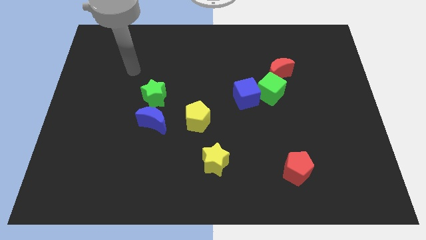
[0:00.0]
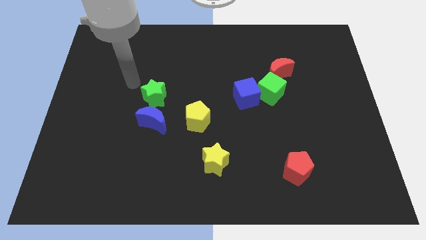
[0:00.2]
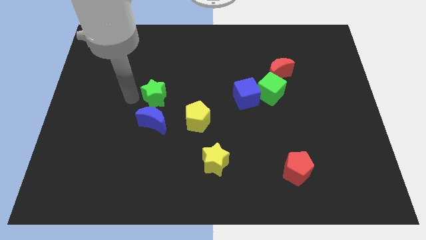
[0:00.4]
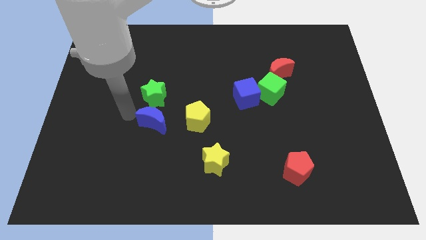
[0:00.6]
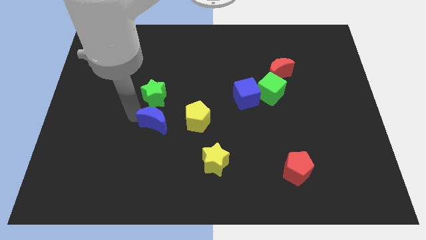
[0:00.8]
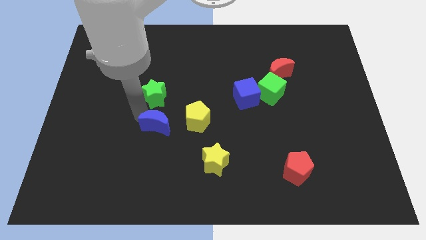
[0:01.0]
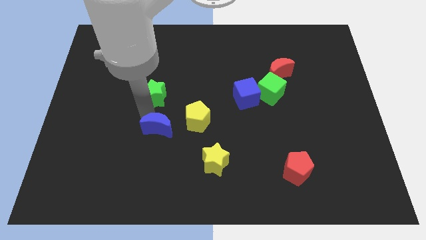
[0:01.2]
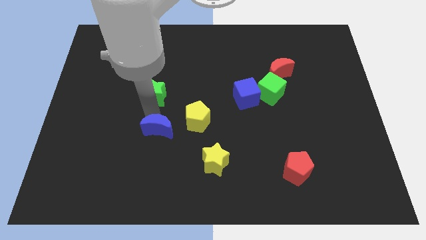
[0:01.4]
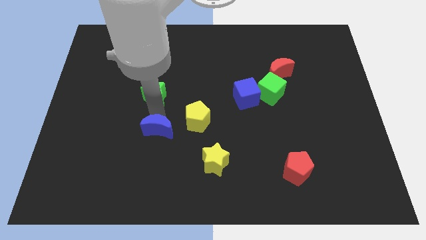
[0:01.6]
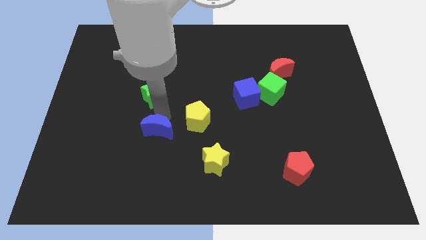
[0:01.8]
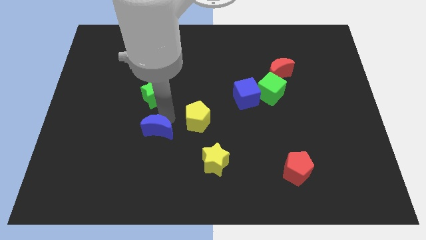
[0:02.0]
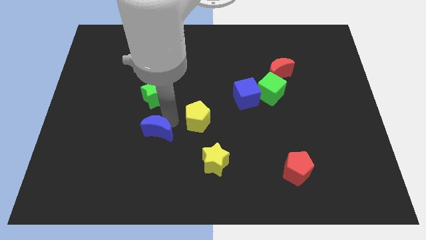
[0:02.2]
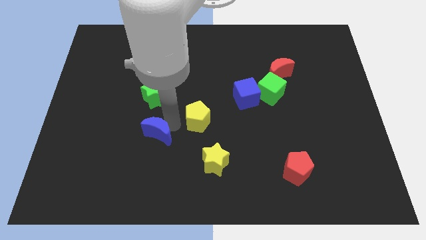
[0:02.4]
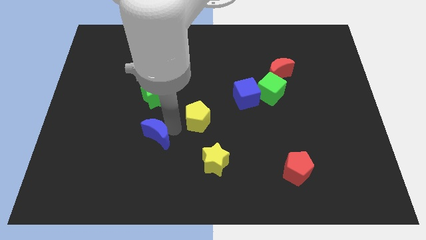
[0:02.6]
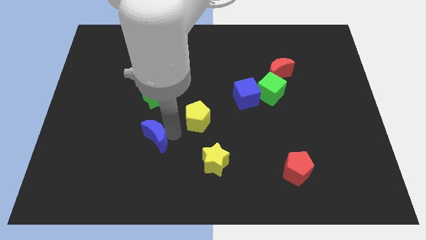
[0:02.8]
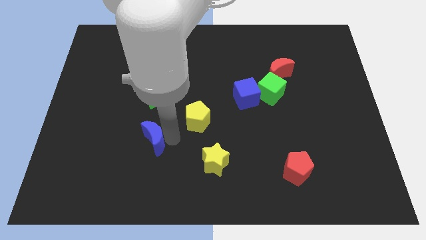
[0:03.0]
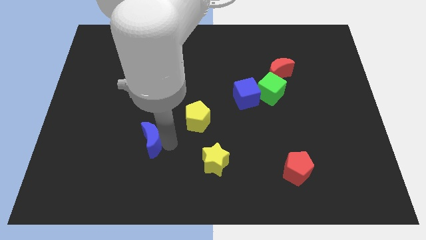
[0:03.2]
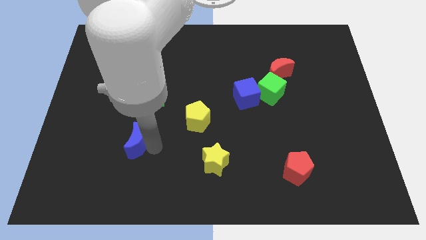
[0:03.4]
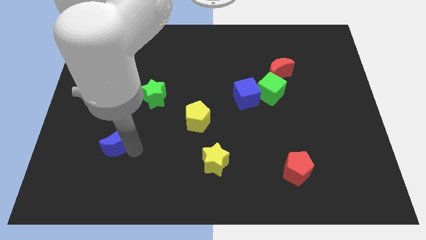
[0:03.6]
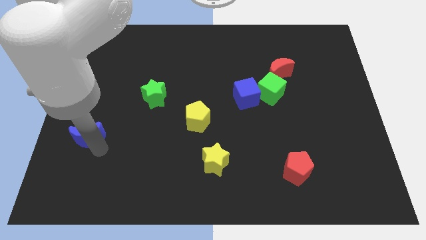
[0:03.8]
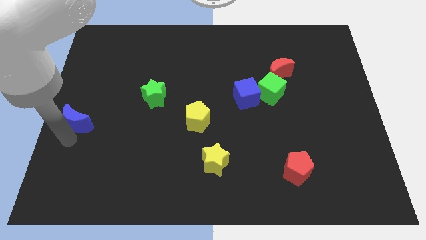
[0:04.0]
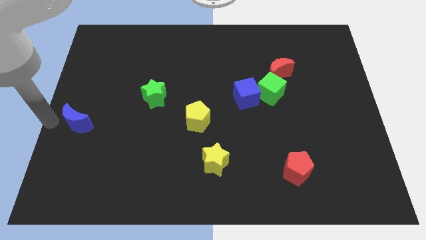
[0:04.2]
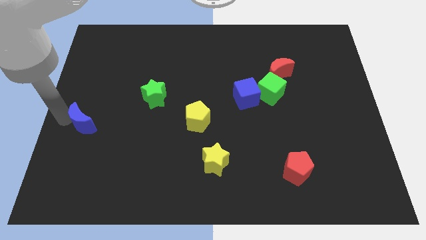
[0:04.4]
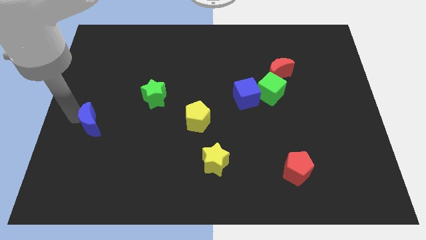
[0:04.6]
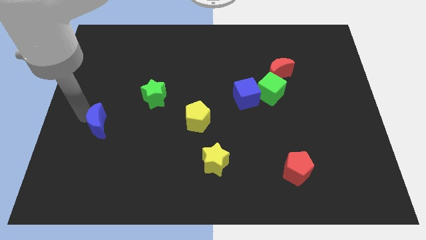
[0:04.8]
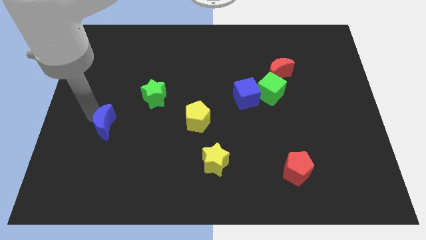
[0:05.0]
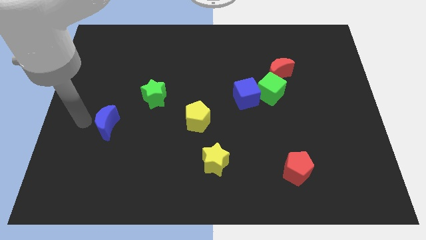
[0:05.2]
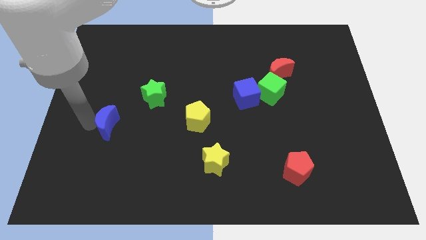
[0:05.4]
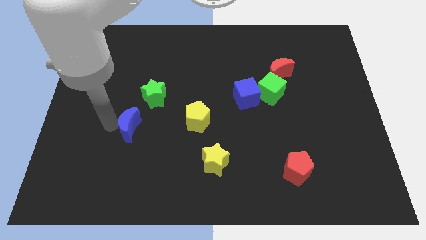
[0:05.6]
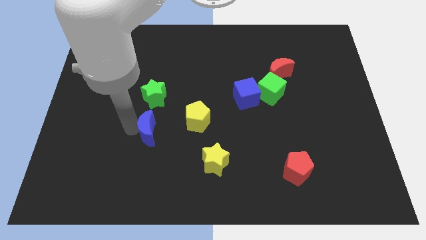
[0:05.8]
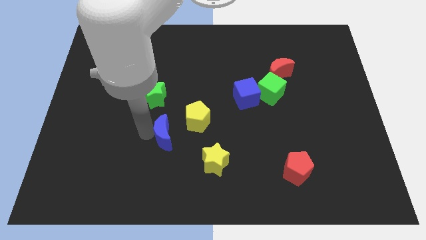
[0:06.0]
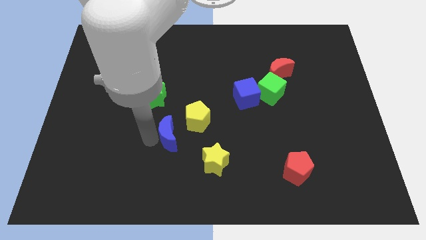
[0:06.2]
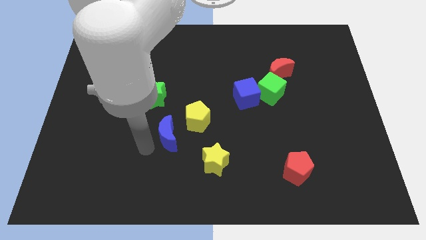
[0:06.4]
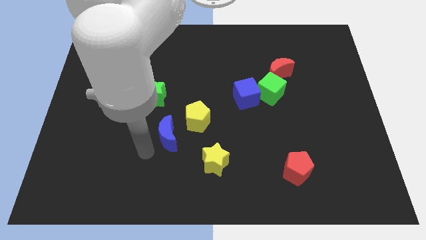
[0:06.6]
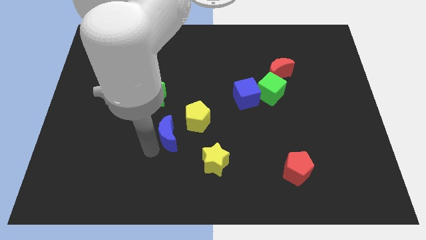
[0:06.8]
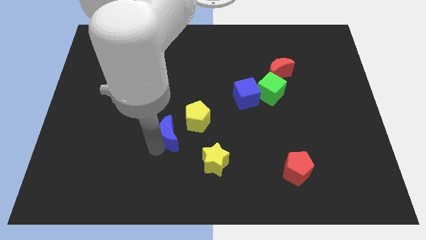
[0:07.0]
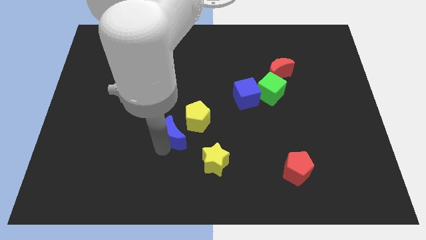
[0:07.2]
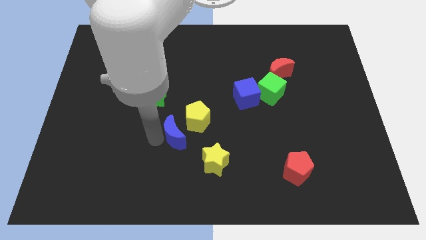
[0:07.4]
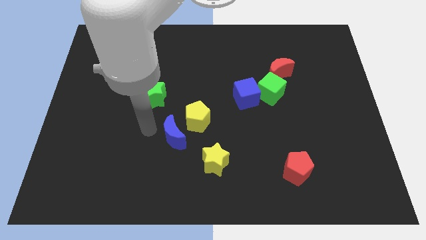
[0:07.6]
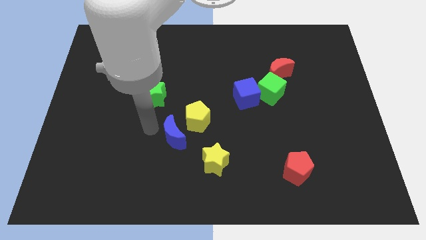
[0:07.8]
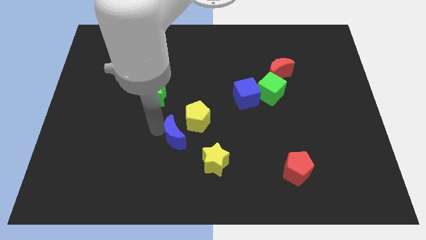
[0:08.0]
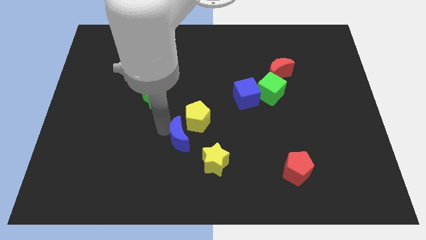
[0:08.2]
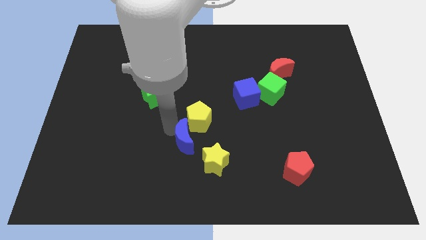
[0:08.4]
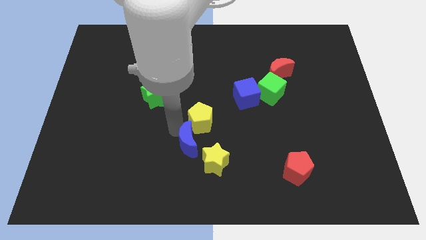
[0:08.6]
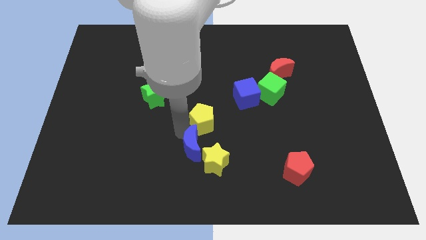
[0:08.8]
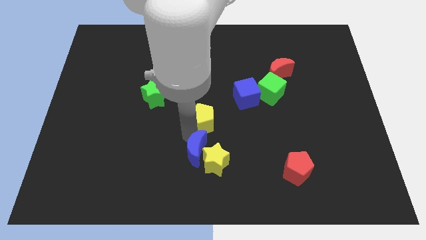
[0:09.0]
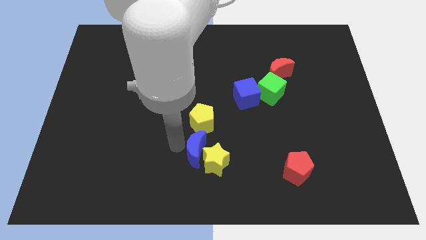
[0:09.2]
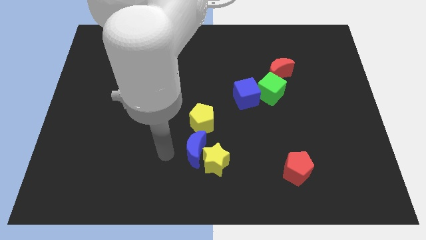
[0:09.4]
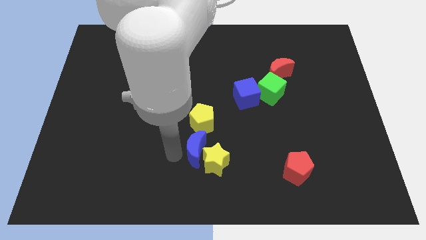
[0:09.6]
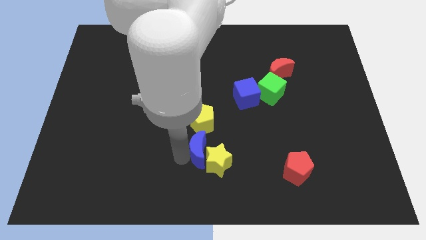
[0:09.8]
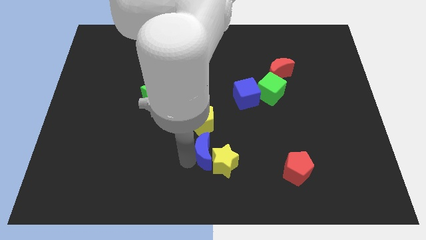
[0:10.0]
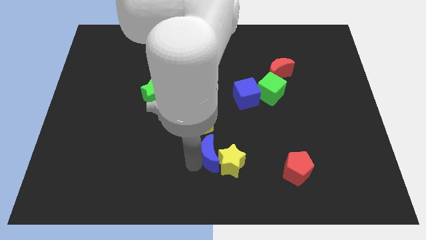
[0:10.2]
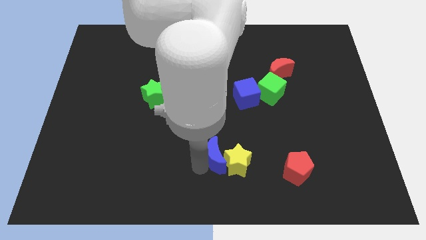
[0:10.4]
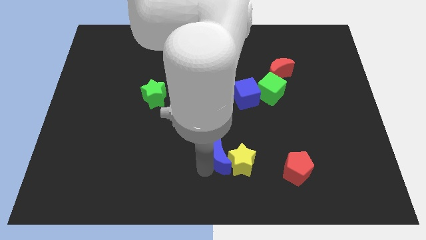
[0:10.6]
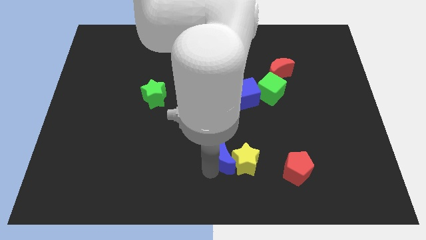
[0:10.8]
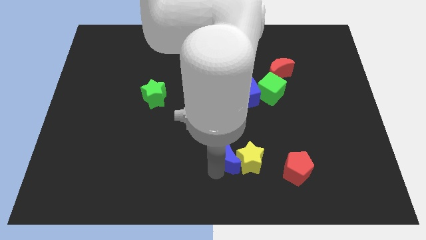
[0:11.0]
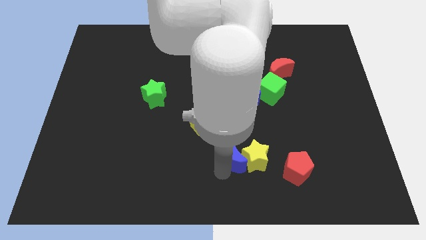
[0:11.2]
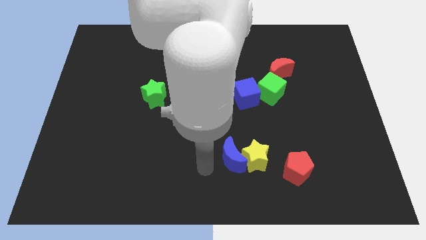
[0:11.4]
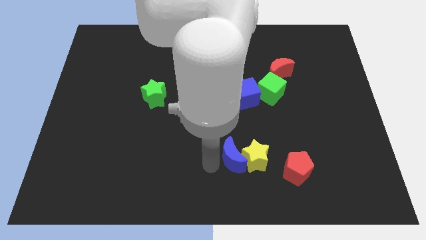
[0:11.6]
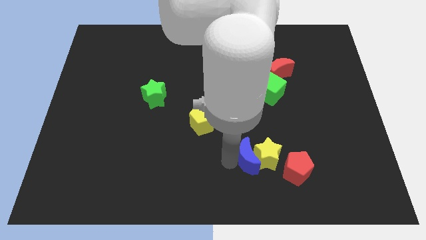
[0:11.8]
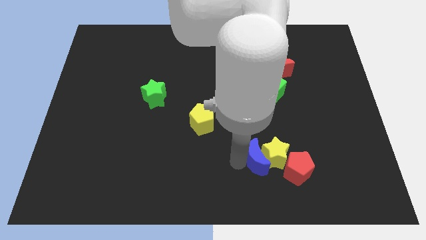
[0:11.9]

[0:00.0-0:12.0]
move the blue moon diagonally up and to the left of the red pentagon

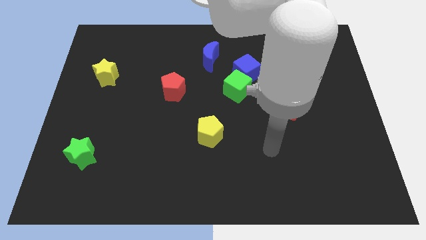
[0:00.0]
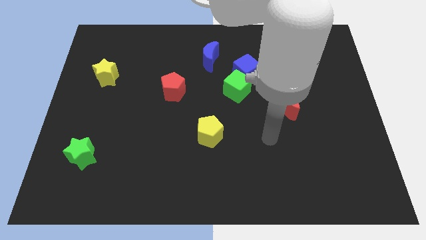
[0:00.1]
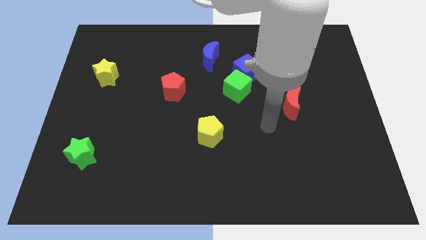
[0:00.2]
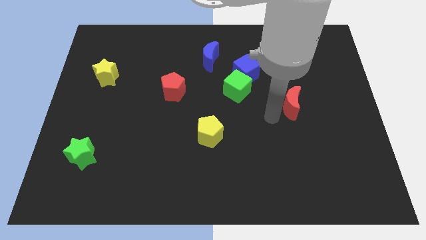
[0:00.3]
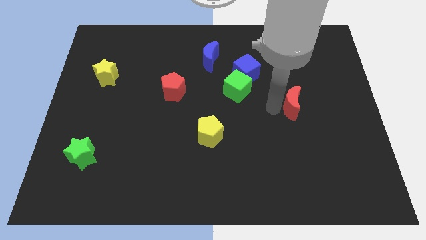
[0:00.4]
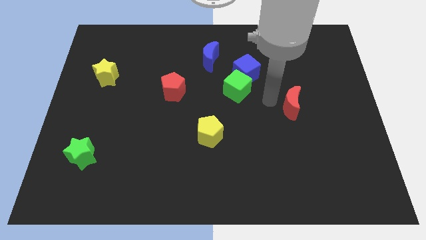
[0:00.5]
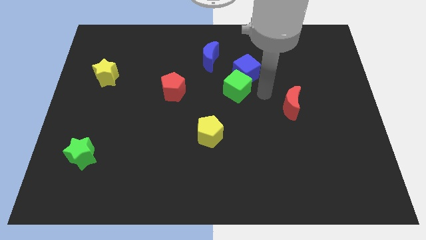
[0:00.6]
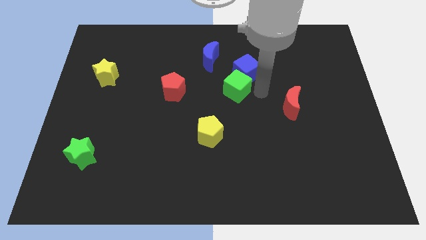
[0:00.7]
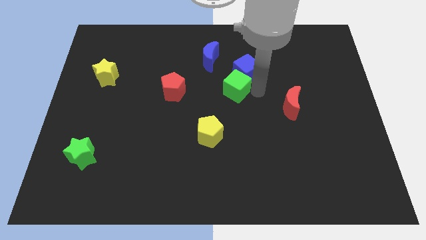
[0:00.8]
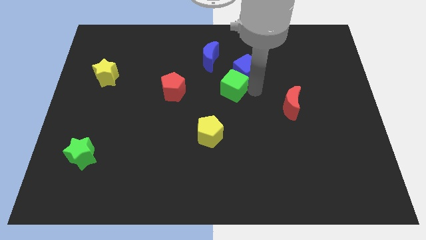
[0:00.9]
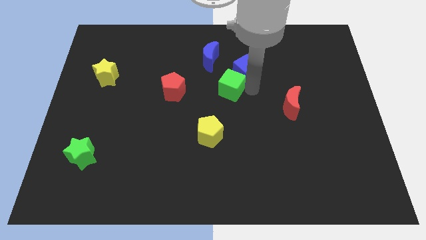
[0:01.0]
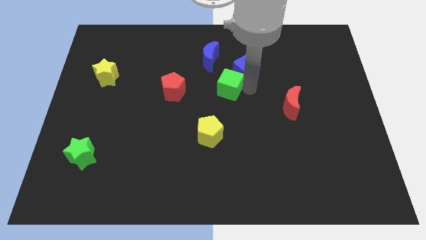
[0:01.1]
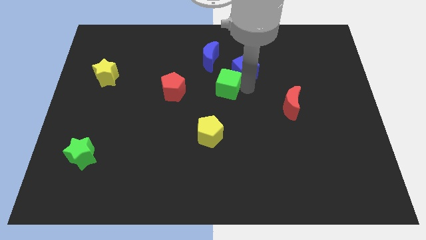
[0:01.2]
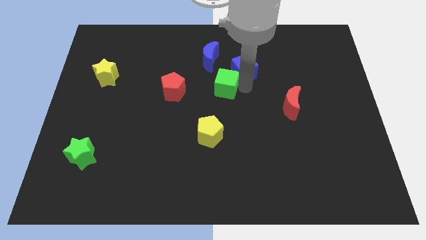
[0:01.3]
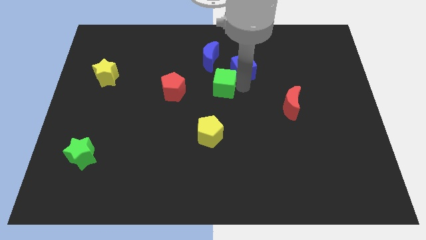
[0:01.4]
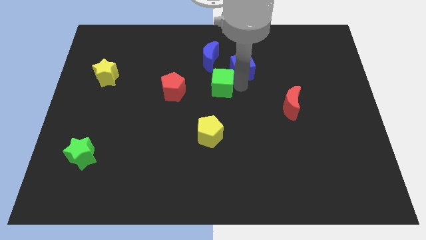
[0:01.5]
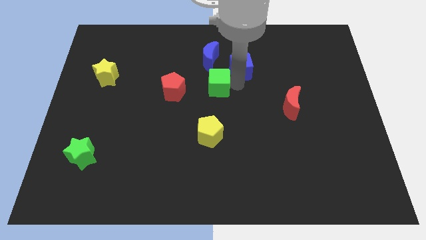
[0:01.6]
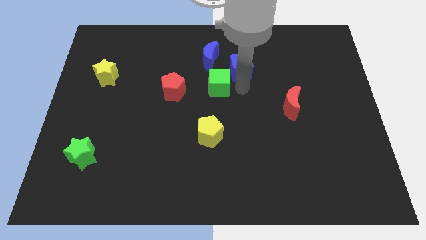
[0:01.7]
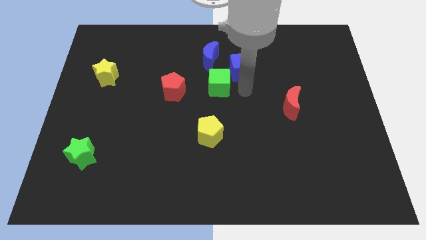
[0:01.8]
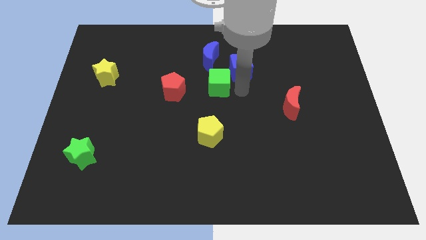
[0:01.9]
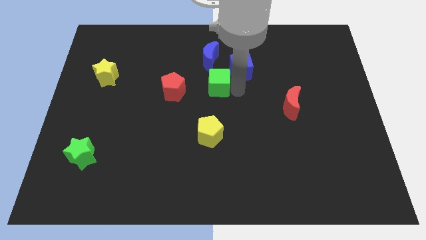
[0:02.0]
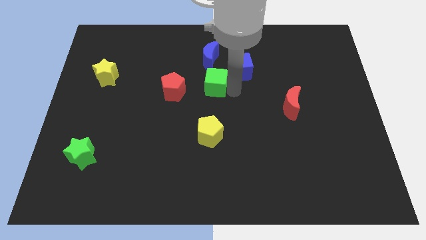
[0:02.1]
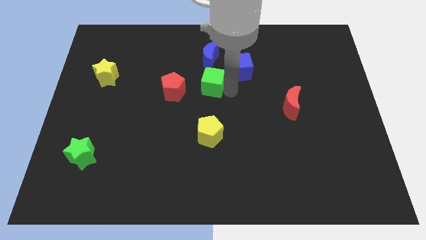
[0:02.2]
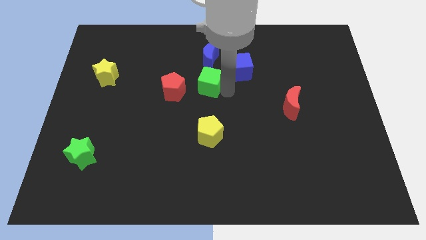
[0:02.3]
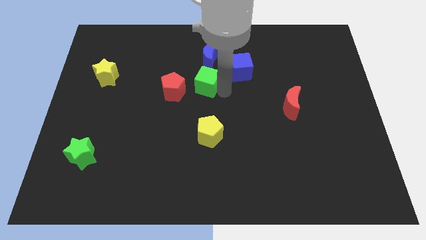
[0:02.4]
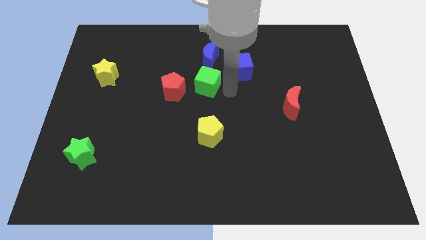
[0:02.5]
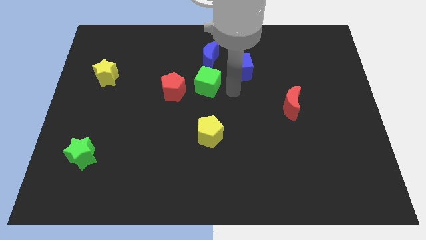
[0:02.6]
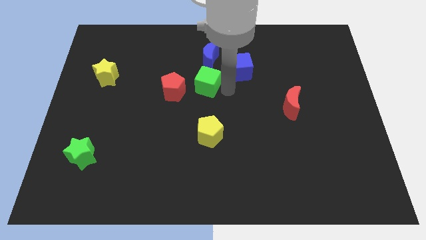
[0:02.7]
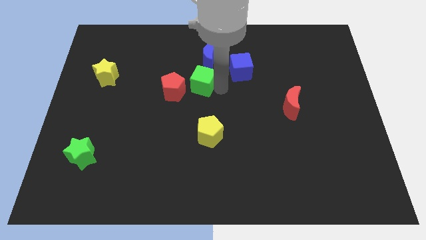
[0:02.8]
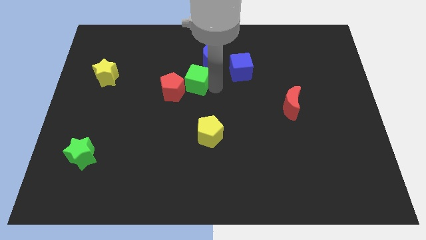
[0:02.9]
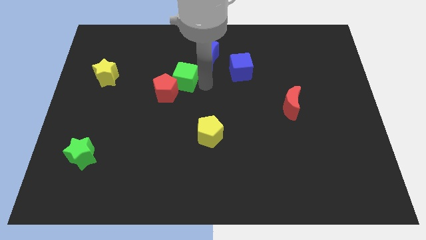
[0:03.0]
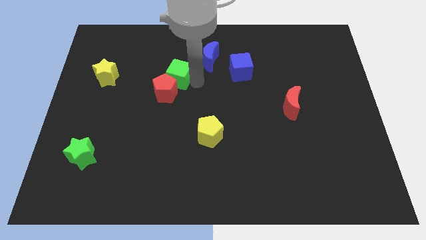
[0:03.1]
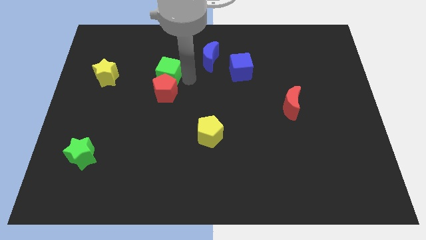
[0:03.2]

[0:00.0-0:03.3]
move the green cube diagonally up and to the left of the red pentagon
